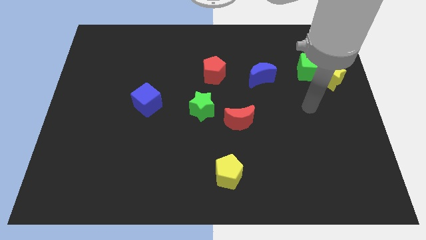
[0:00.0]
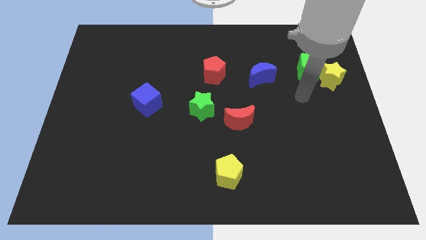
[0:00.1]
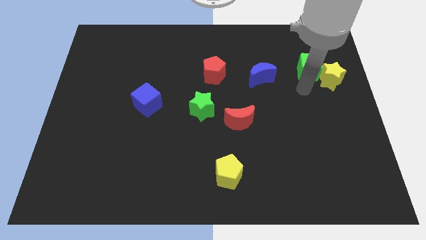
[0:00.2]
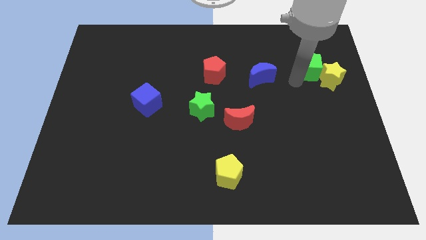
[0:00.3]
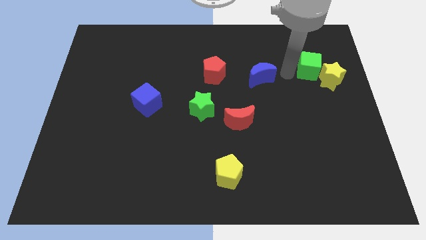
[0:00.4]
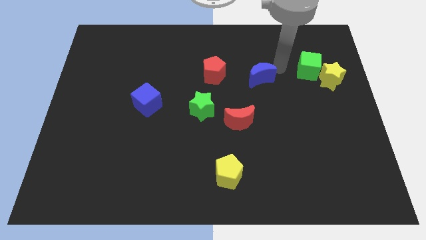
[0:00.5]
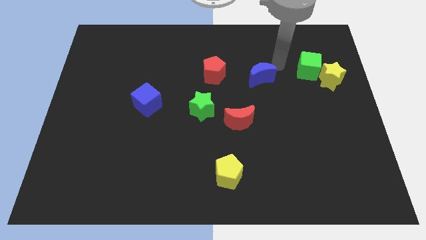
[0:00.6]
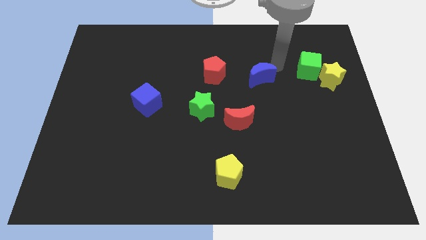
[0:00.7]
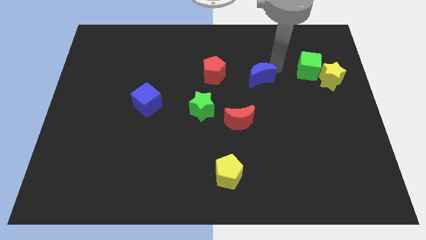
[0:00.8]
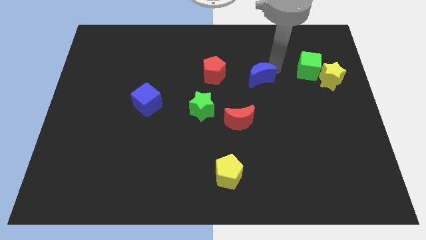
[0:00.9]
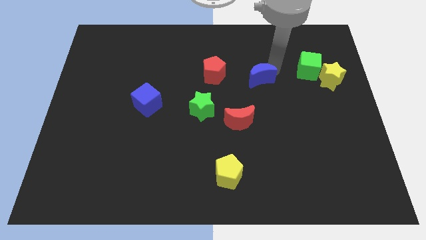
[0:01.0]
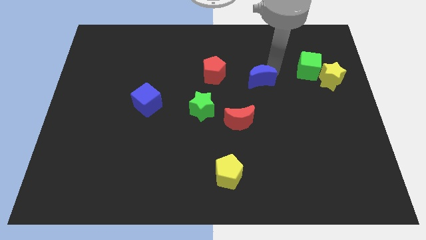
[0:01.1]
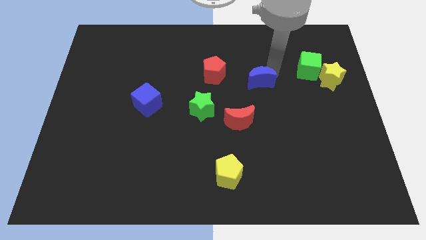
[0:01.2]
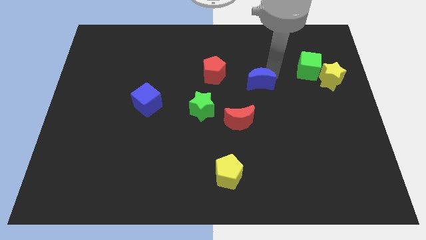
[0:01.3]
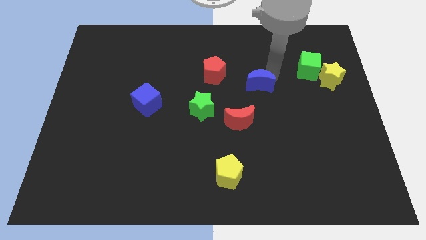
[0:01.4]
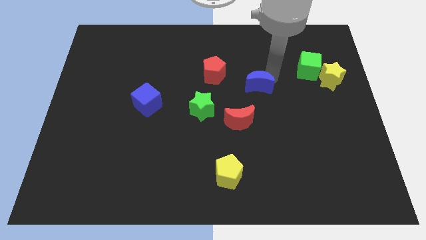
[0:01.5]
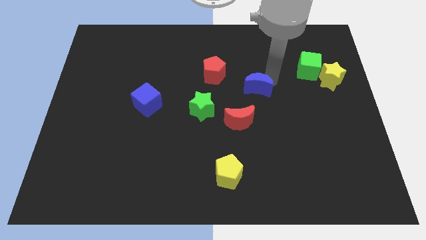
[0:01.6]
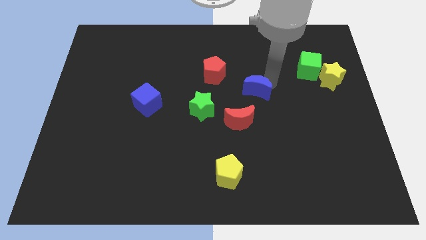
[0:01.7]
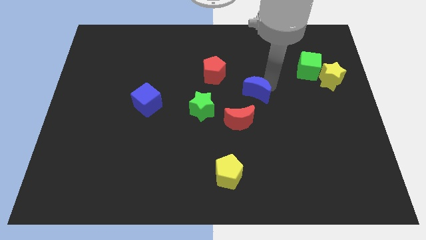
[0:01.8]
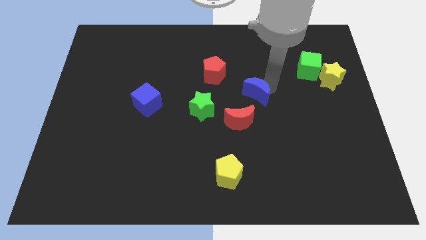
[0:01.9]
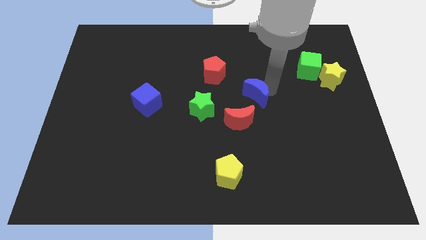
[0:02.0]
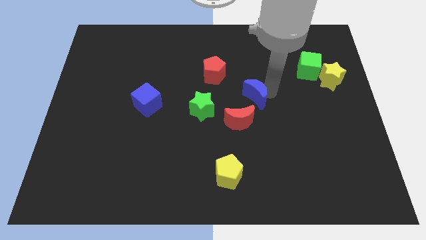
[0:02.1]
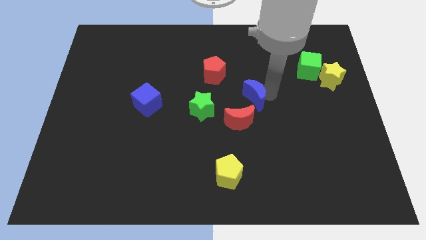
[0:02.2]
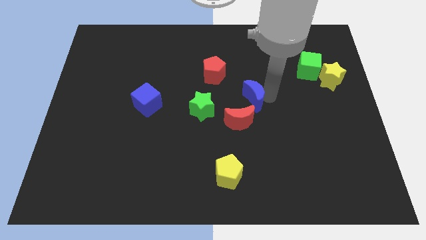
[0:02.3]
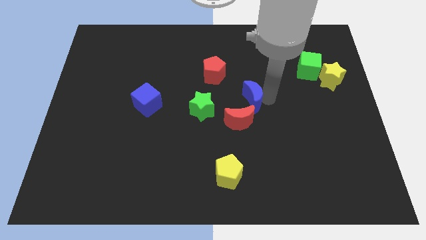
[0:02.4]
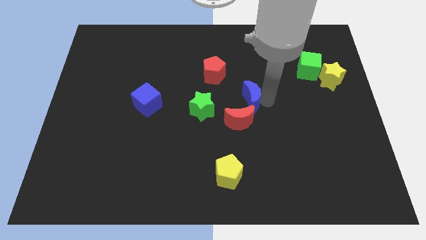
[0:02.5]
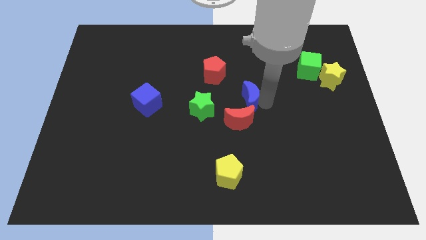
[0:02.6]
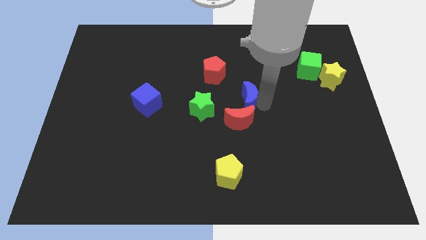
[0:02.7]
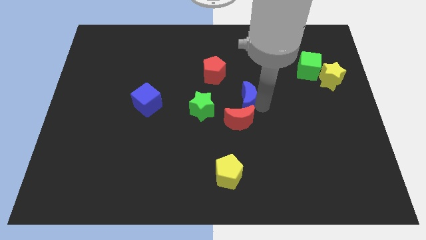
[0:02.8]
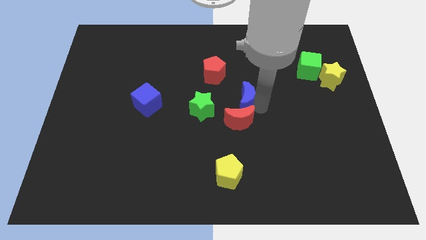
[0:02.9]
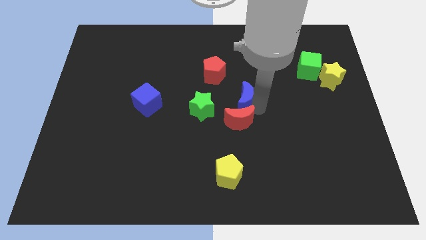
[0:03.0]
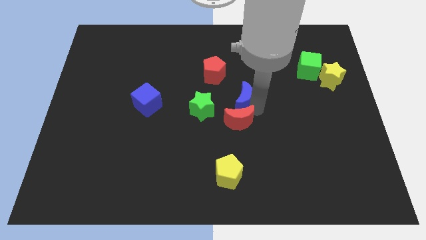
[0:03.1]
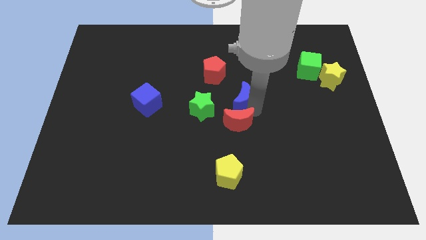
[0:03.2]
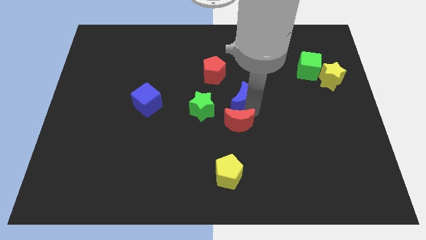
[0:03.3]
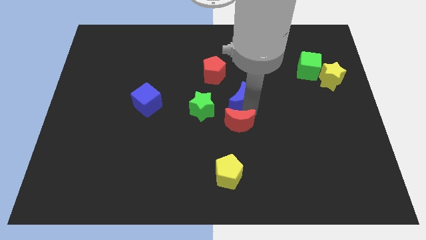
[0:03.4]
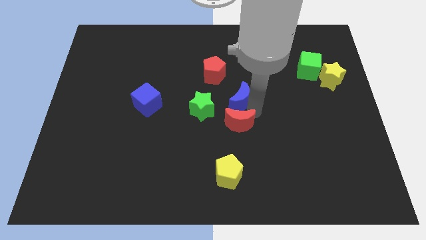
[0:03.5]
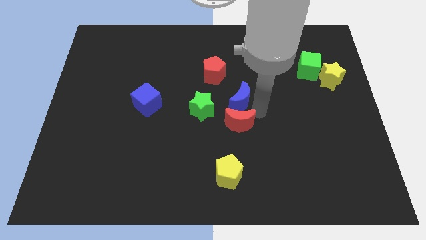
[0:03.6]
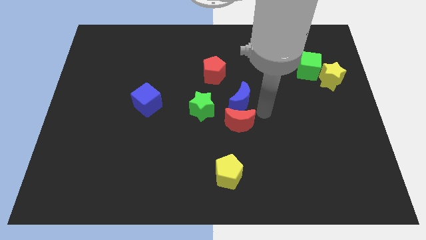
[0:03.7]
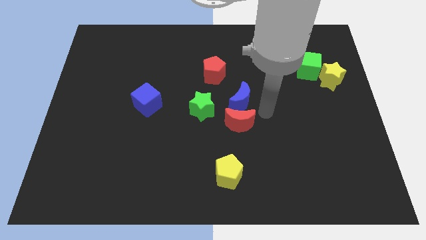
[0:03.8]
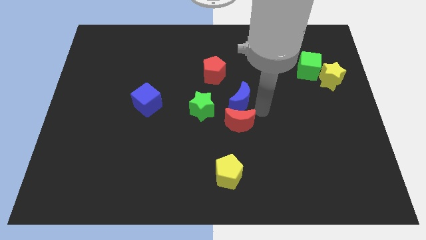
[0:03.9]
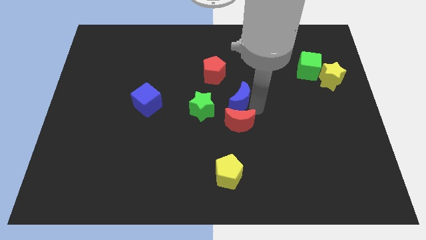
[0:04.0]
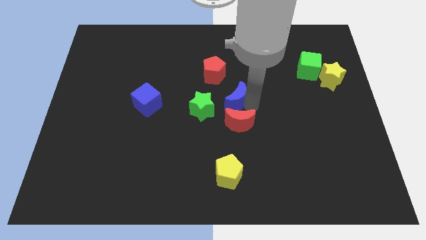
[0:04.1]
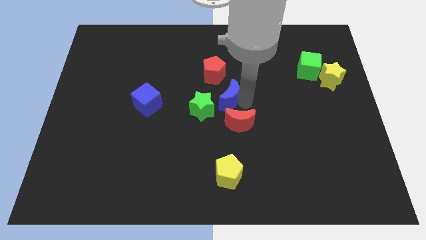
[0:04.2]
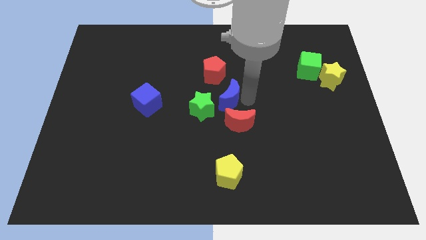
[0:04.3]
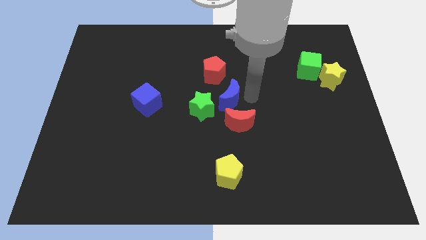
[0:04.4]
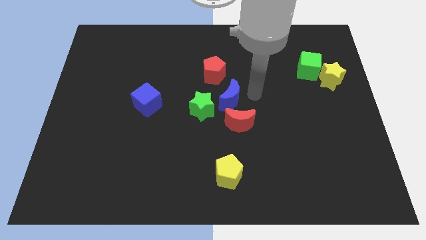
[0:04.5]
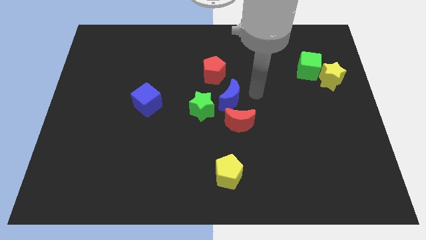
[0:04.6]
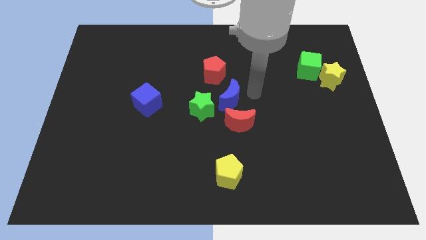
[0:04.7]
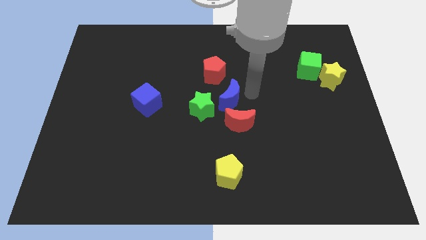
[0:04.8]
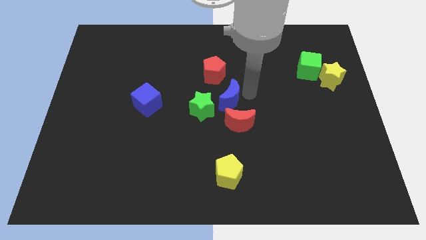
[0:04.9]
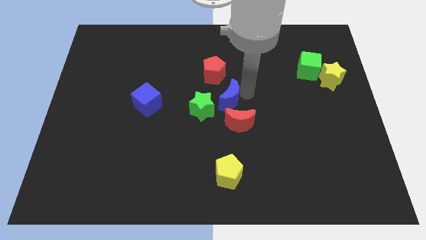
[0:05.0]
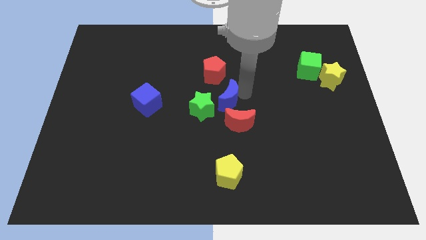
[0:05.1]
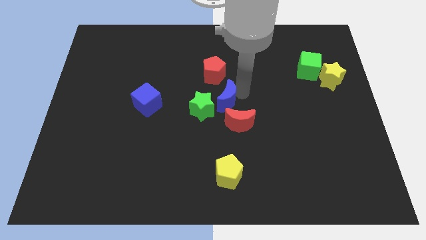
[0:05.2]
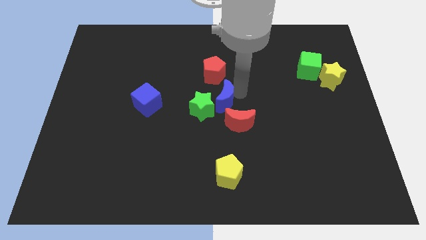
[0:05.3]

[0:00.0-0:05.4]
push the blue moon close to the green star

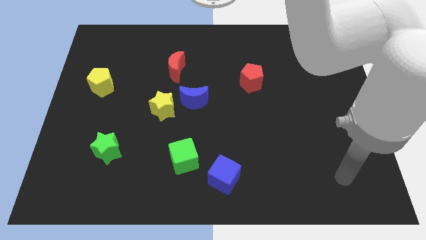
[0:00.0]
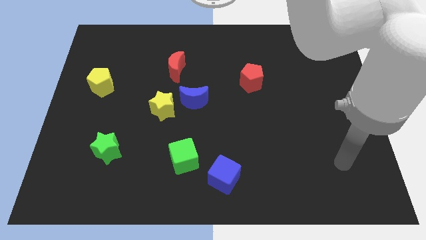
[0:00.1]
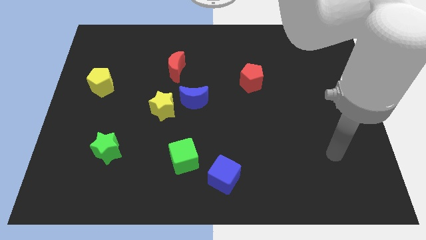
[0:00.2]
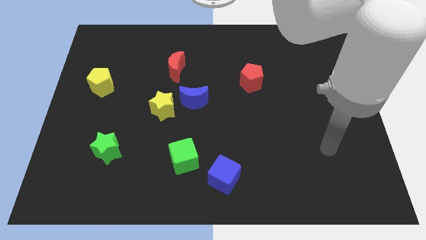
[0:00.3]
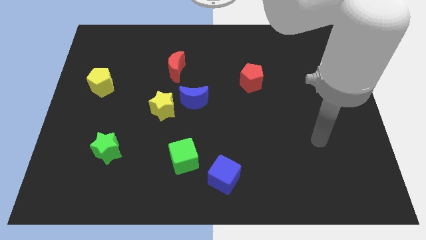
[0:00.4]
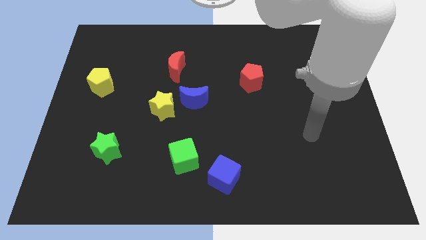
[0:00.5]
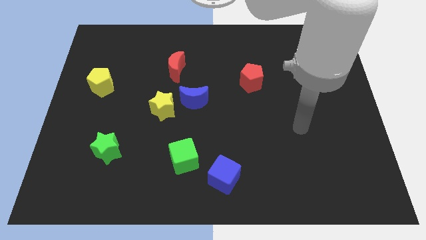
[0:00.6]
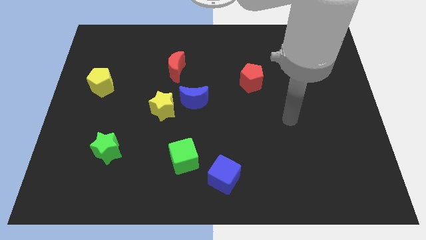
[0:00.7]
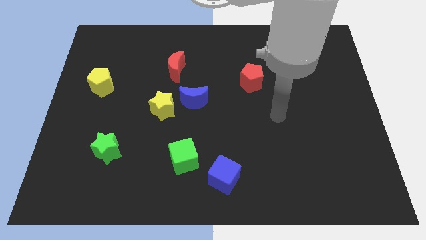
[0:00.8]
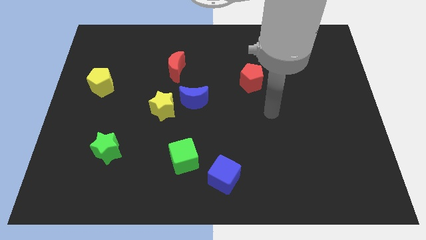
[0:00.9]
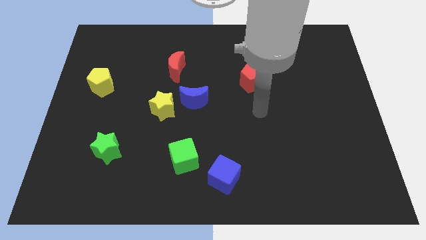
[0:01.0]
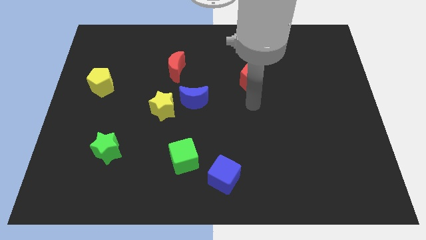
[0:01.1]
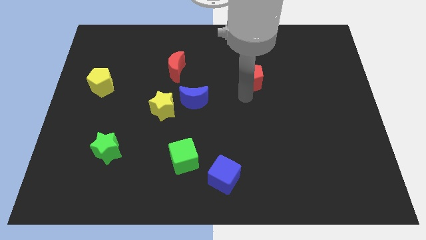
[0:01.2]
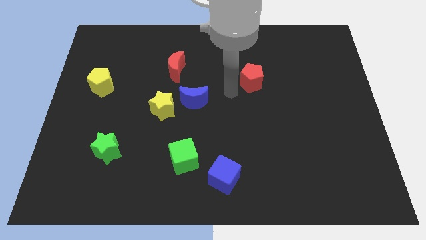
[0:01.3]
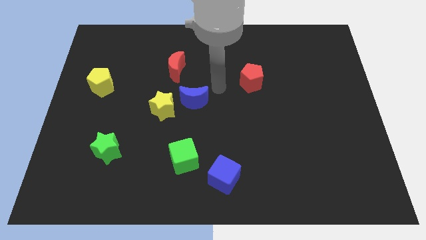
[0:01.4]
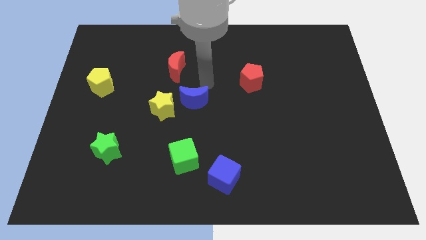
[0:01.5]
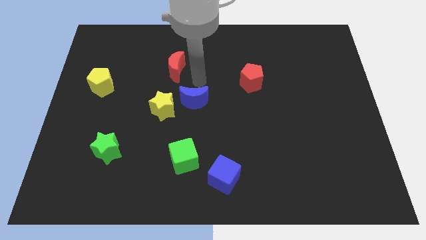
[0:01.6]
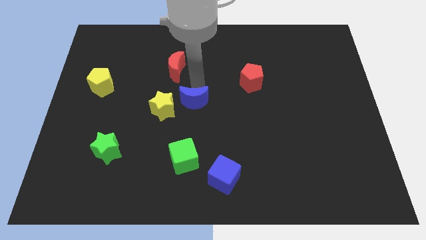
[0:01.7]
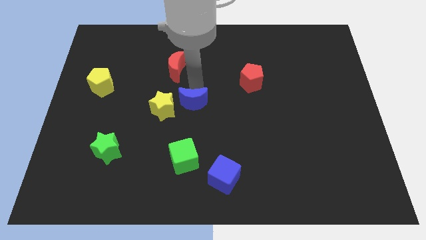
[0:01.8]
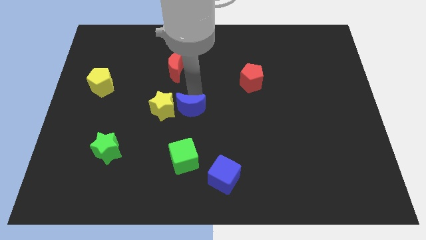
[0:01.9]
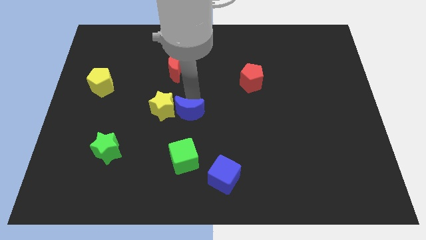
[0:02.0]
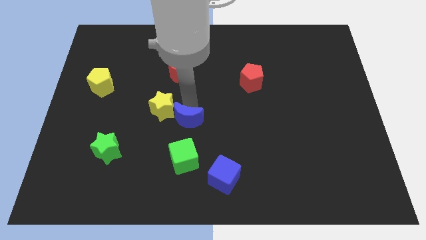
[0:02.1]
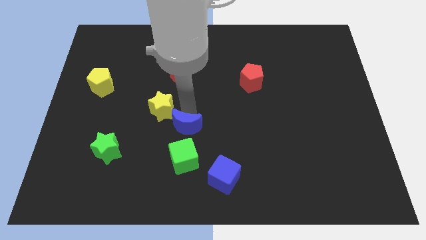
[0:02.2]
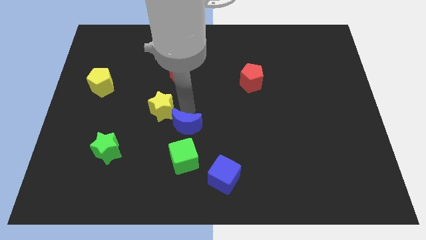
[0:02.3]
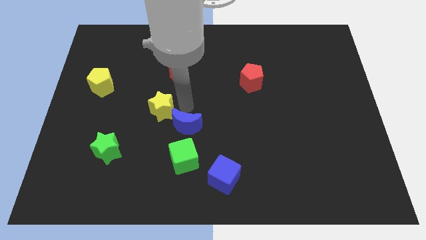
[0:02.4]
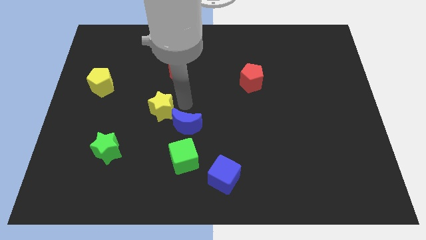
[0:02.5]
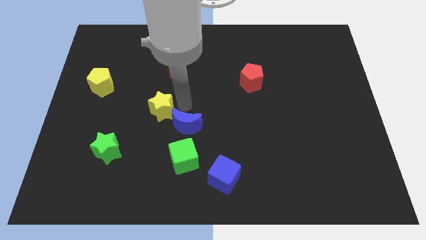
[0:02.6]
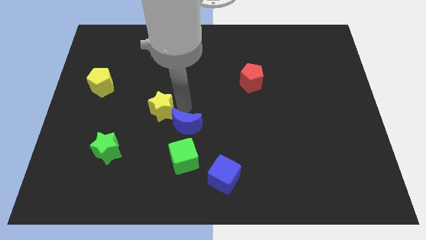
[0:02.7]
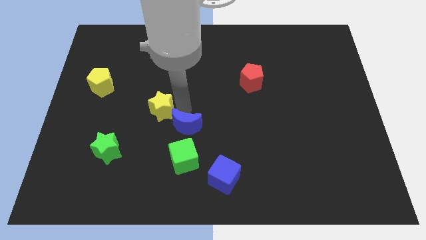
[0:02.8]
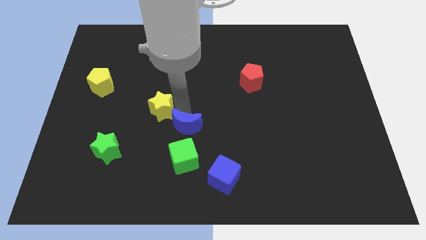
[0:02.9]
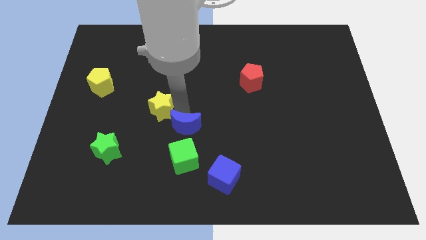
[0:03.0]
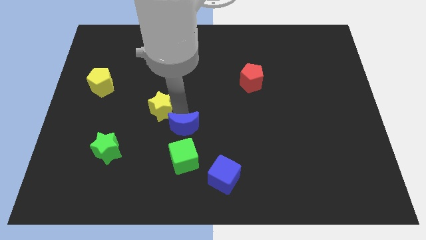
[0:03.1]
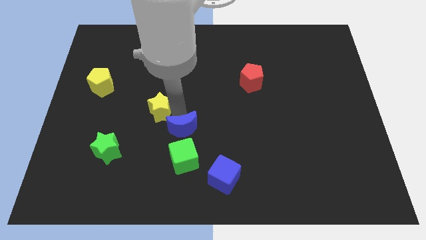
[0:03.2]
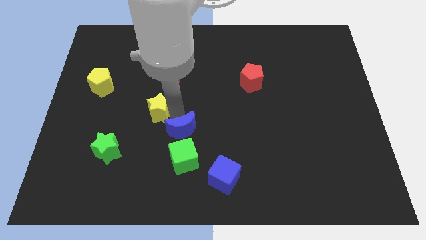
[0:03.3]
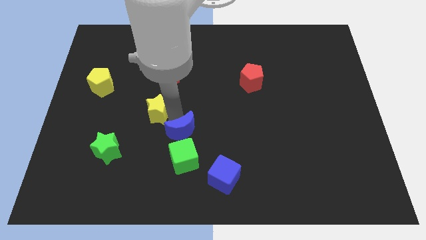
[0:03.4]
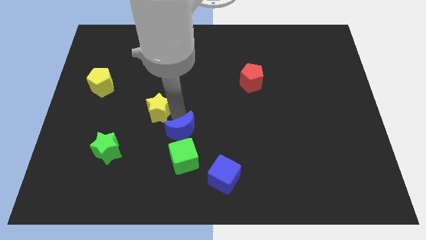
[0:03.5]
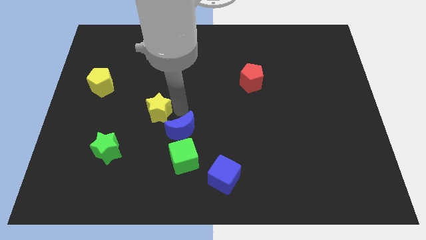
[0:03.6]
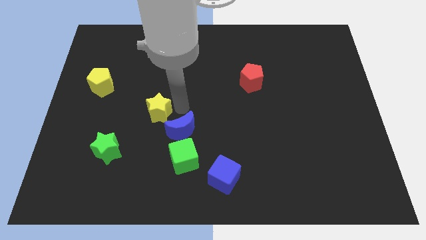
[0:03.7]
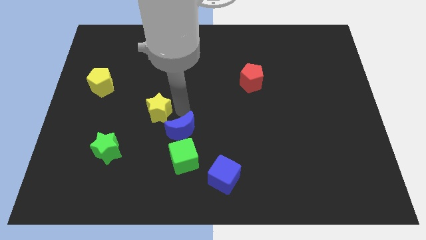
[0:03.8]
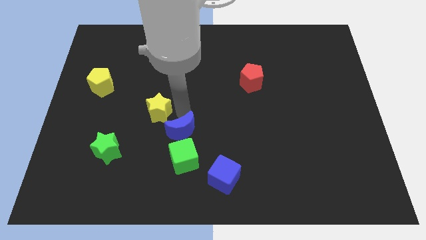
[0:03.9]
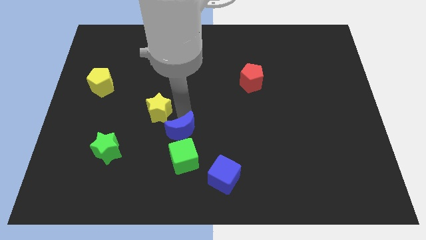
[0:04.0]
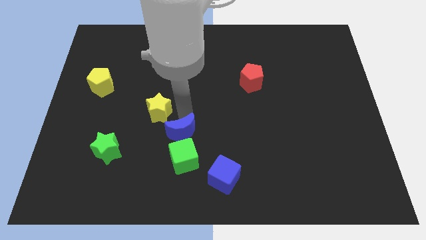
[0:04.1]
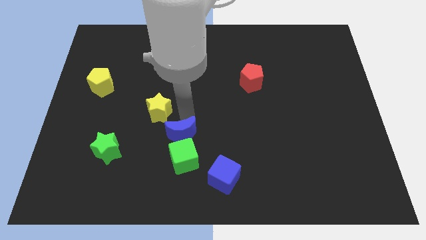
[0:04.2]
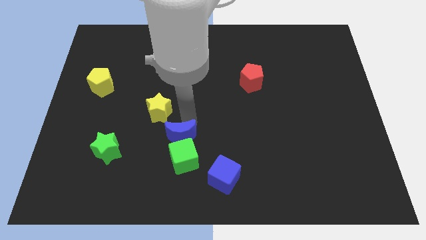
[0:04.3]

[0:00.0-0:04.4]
move the blue moon to the green cube
